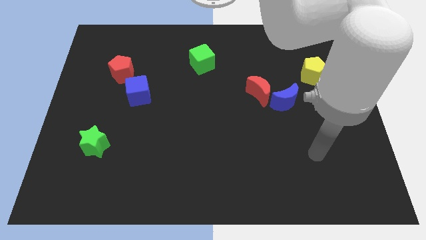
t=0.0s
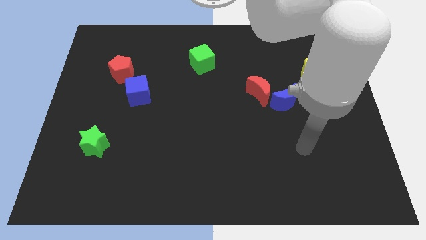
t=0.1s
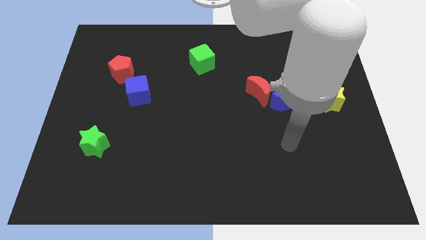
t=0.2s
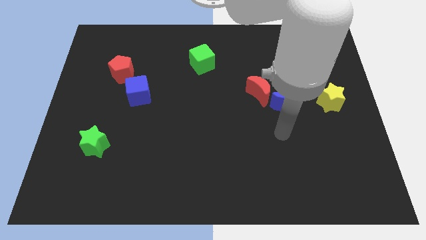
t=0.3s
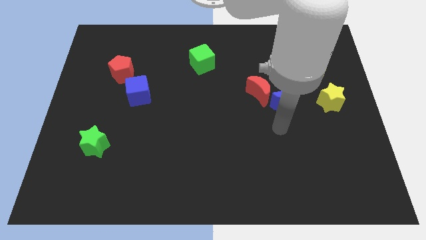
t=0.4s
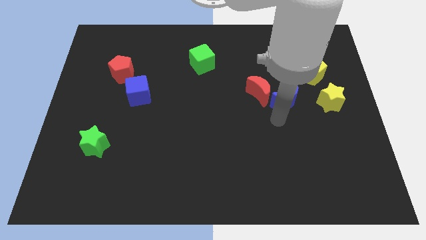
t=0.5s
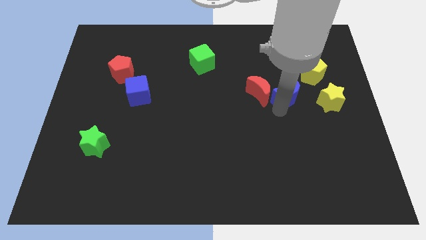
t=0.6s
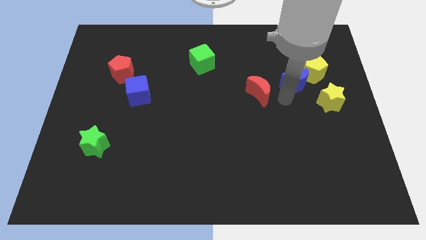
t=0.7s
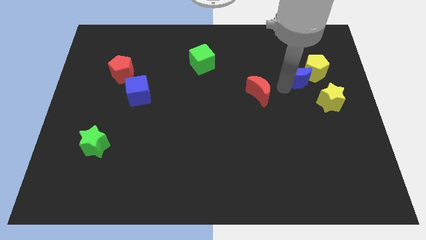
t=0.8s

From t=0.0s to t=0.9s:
separate the red moon from the blue moon

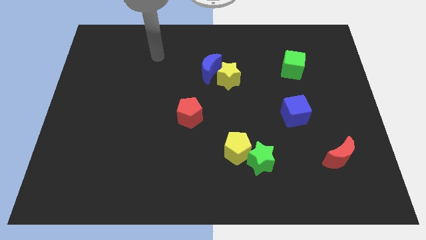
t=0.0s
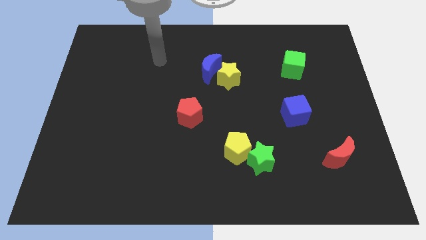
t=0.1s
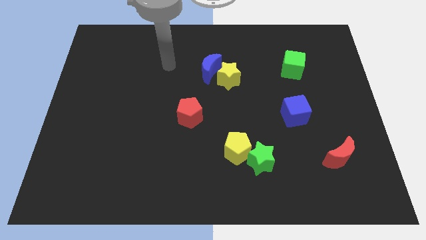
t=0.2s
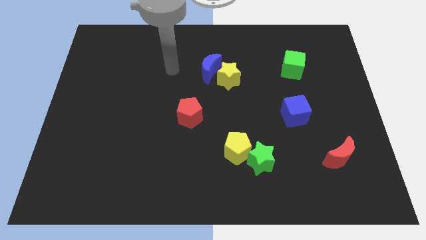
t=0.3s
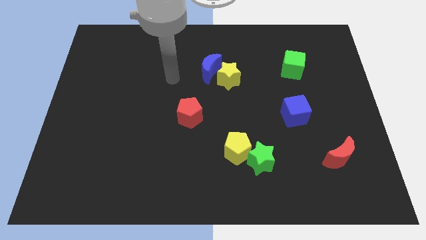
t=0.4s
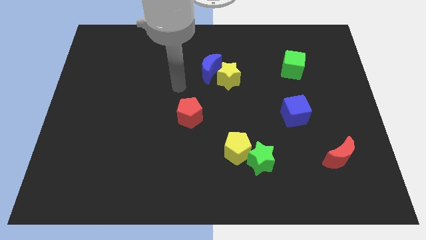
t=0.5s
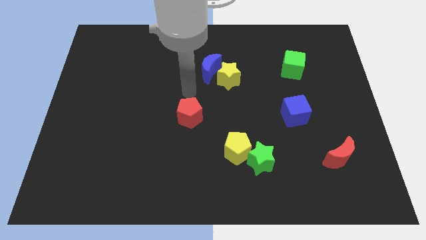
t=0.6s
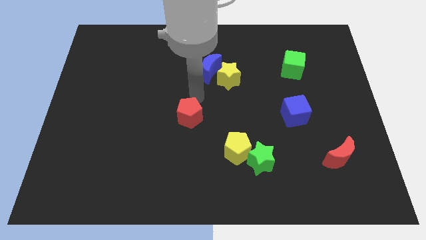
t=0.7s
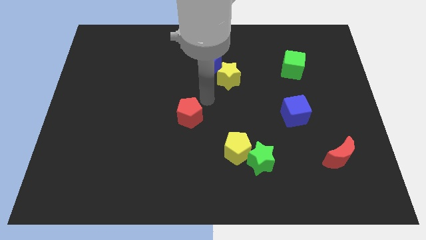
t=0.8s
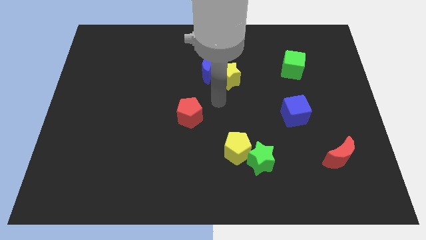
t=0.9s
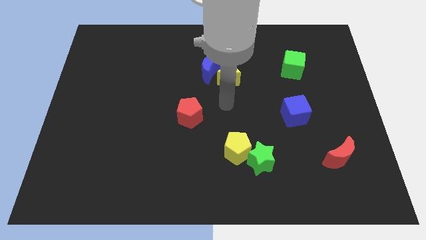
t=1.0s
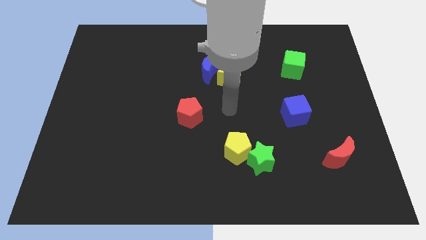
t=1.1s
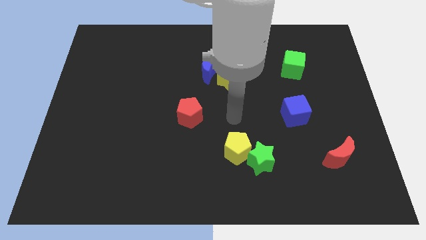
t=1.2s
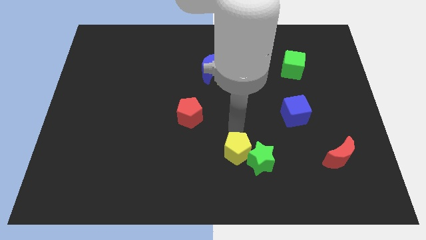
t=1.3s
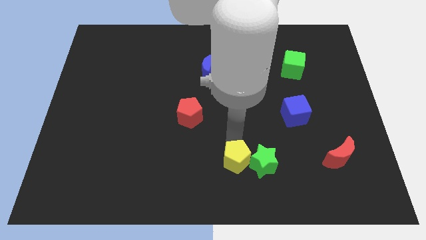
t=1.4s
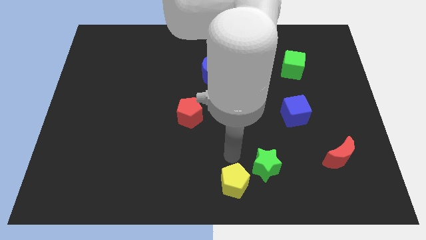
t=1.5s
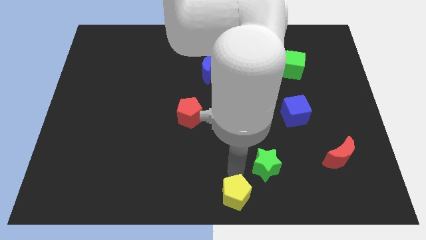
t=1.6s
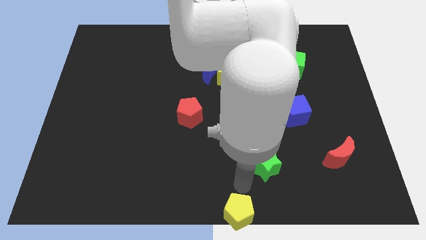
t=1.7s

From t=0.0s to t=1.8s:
separate the green star from the yellow pentagon

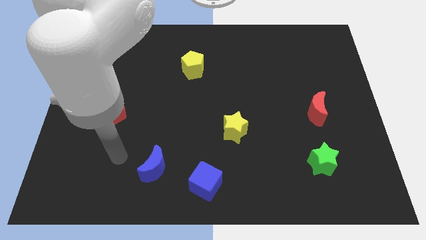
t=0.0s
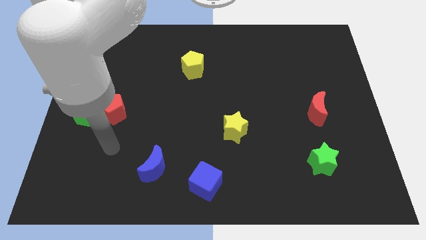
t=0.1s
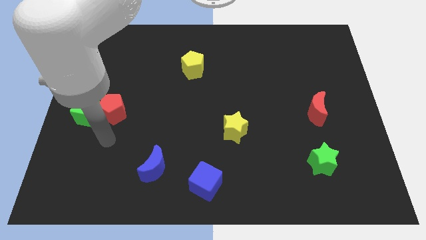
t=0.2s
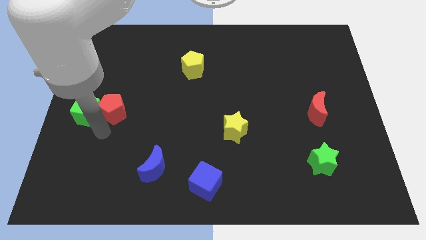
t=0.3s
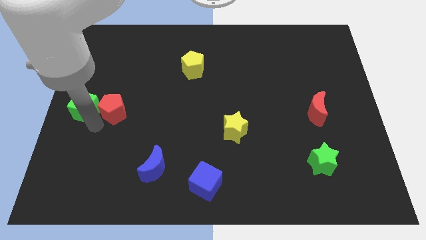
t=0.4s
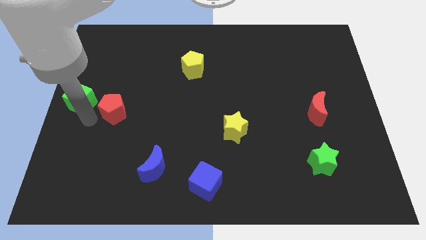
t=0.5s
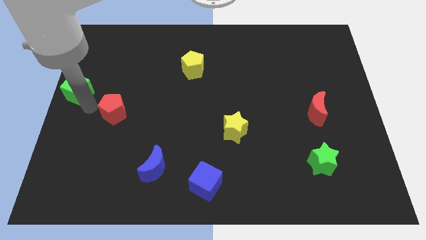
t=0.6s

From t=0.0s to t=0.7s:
pull the red pentagon apart from the green cube

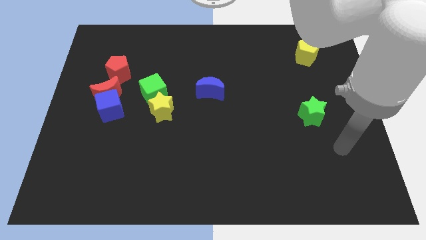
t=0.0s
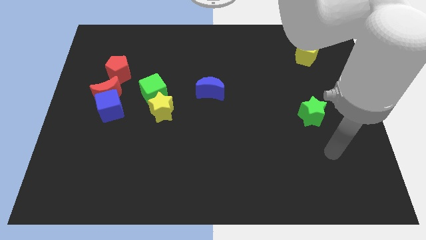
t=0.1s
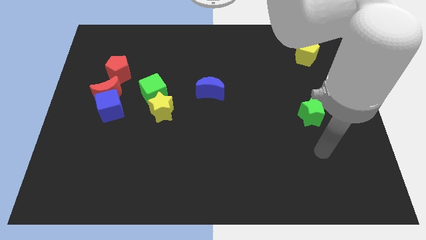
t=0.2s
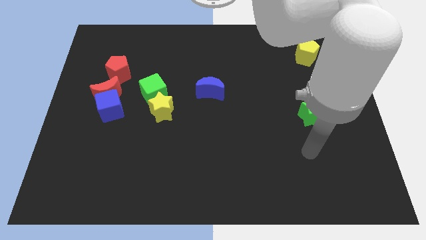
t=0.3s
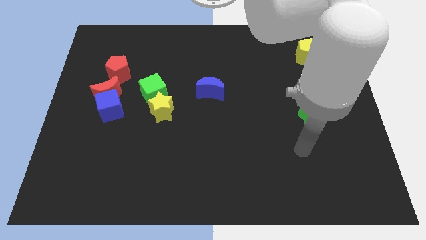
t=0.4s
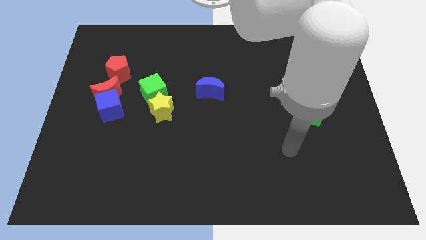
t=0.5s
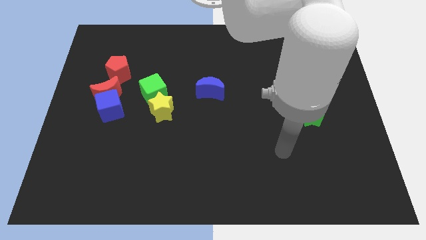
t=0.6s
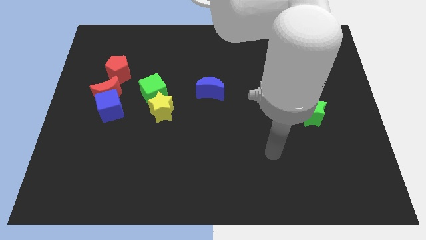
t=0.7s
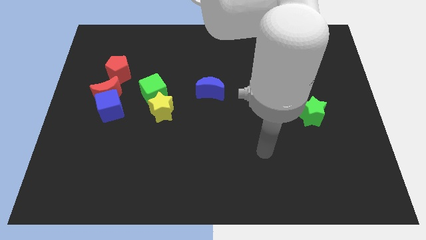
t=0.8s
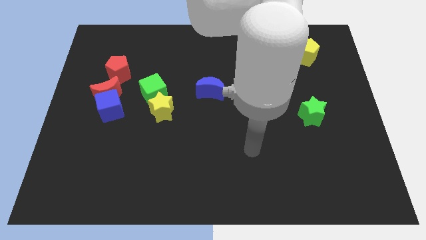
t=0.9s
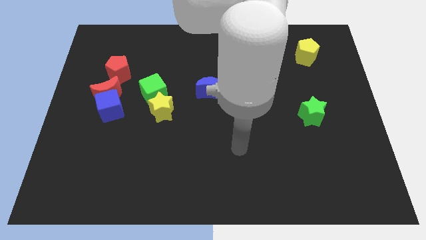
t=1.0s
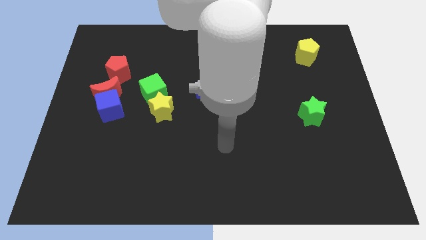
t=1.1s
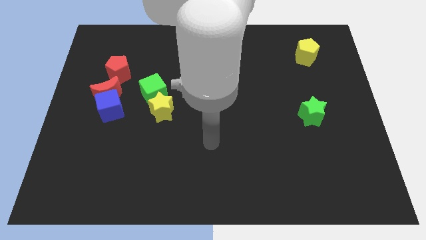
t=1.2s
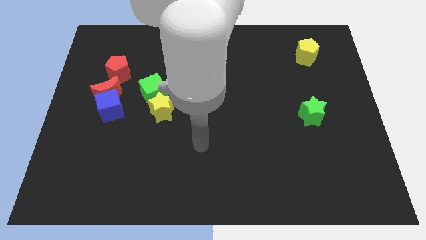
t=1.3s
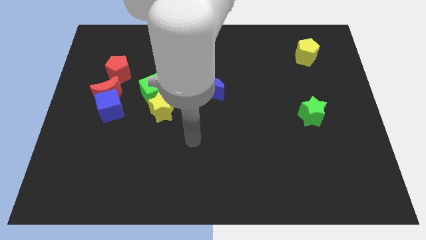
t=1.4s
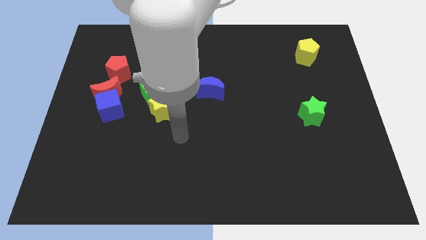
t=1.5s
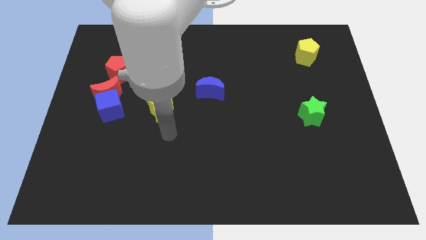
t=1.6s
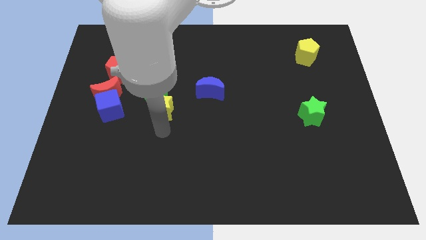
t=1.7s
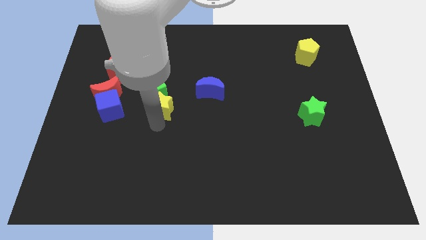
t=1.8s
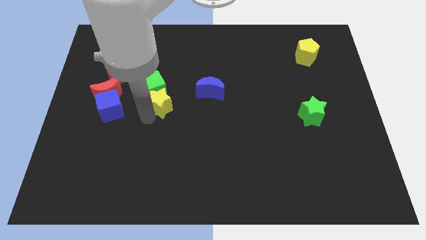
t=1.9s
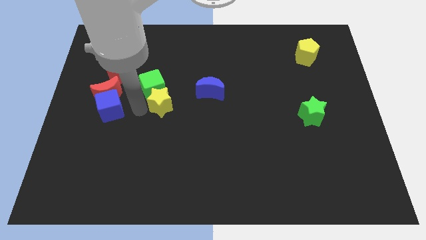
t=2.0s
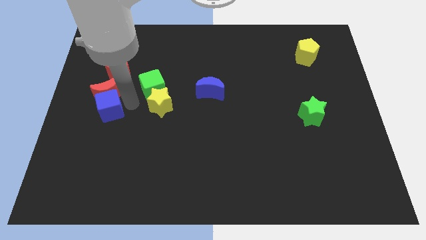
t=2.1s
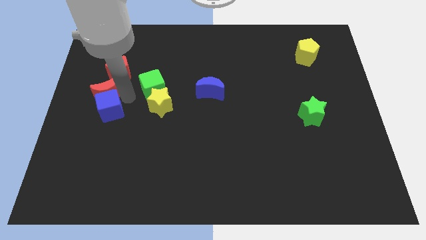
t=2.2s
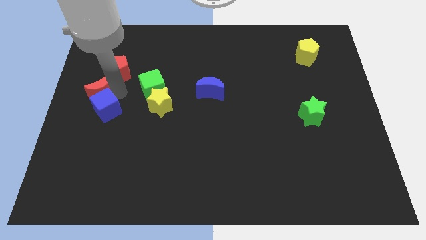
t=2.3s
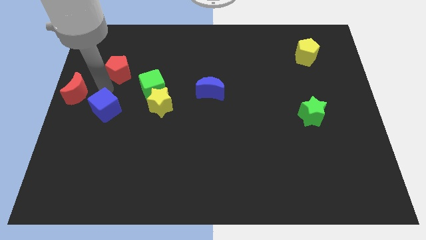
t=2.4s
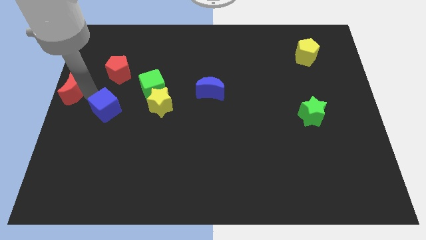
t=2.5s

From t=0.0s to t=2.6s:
pull the blue cube apart from the red moon

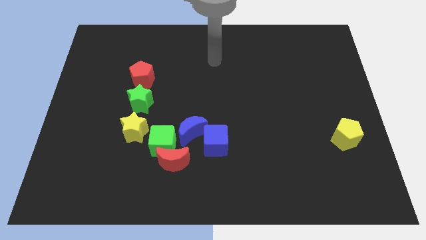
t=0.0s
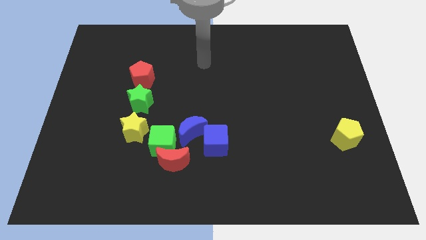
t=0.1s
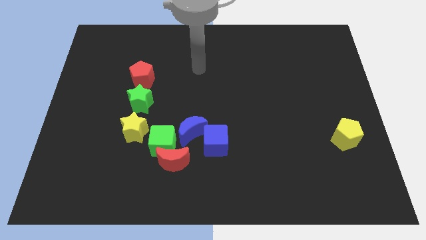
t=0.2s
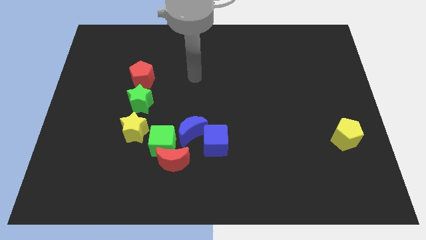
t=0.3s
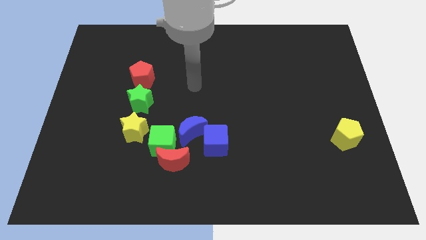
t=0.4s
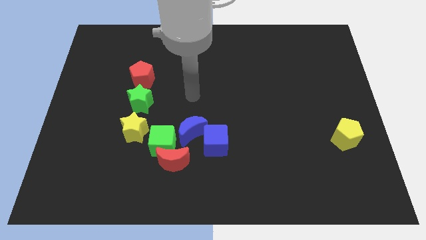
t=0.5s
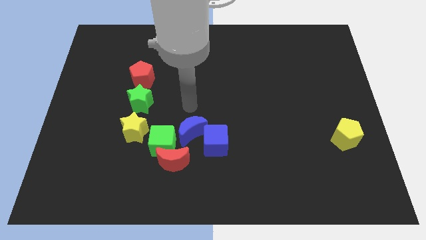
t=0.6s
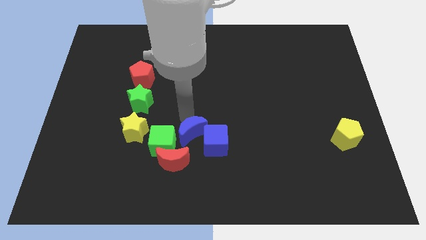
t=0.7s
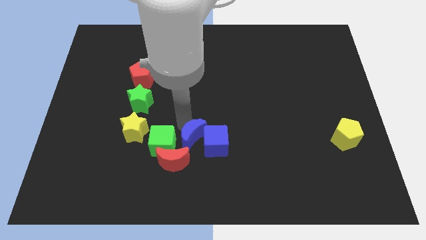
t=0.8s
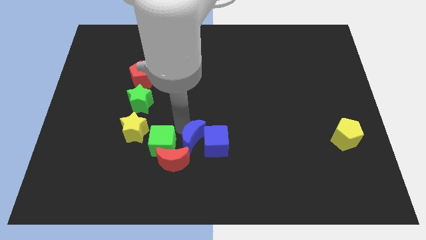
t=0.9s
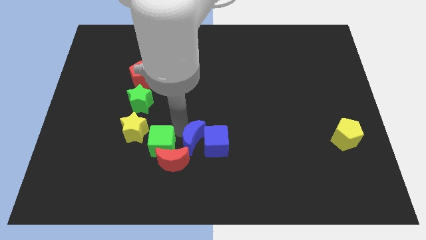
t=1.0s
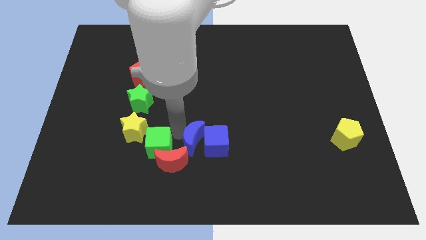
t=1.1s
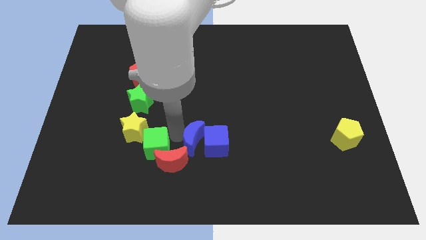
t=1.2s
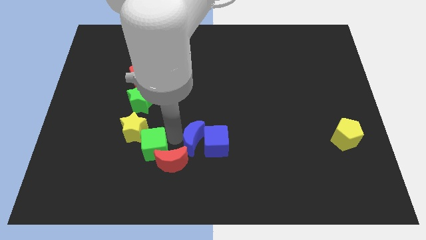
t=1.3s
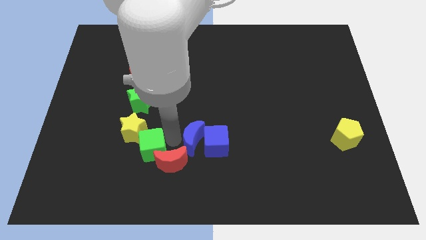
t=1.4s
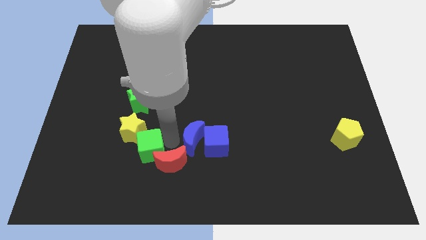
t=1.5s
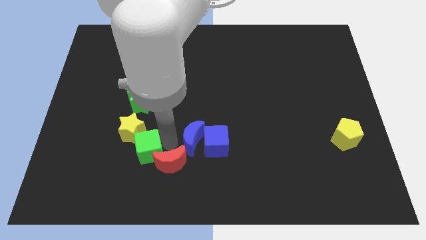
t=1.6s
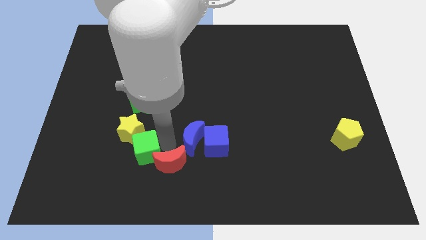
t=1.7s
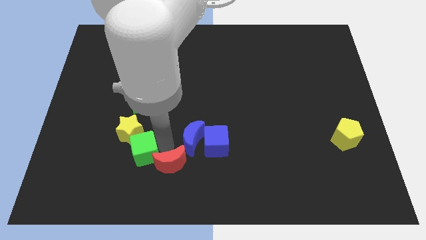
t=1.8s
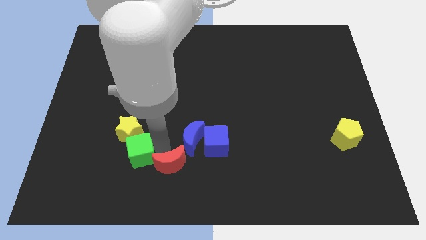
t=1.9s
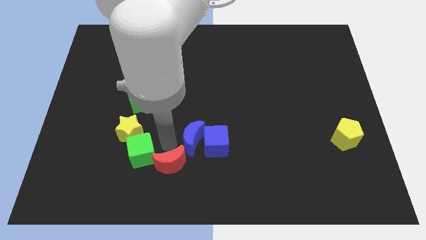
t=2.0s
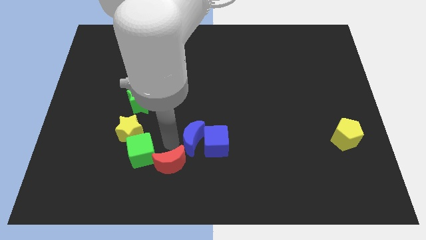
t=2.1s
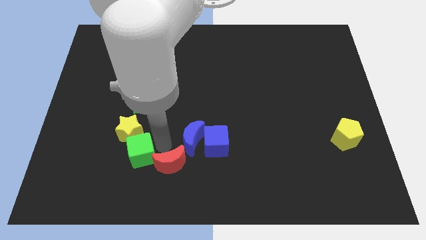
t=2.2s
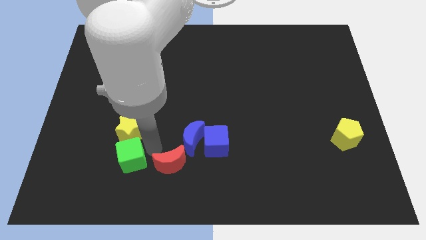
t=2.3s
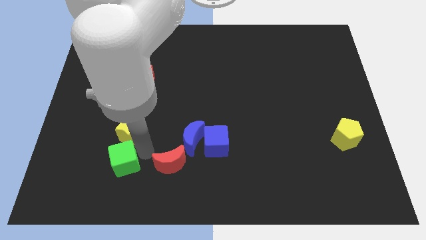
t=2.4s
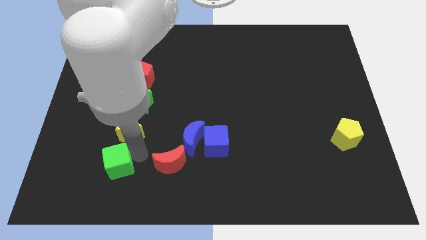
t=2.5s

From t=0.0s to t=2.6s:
separate the green cube from the red moon, blue moon, and yellow star

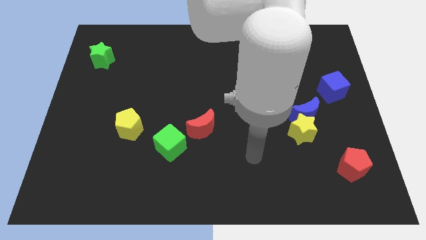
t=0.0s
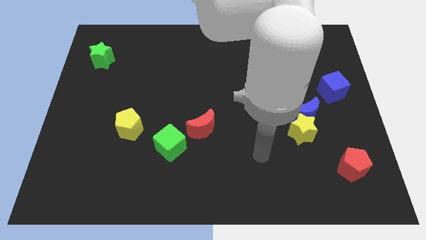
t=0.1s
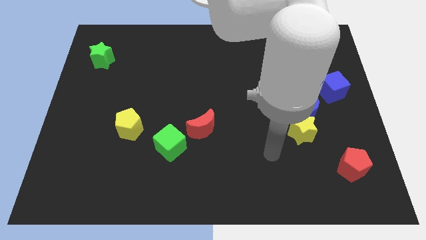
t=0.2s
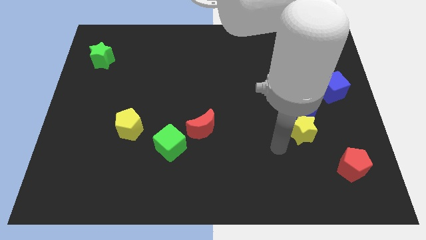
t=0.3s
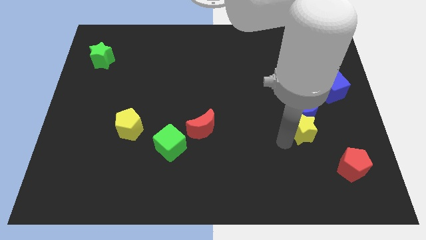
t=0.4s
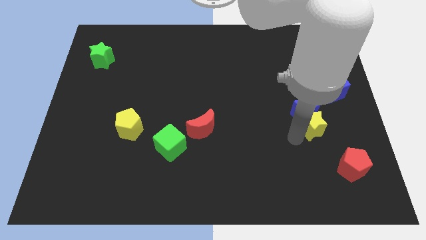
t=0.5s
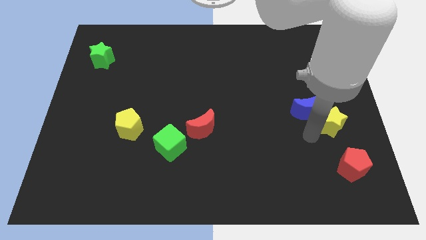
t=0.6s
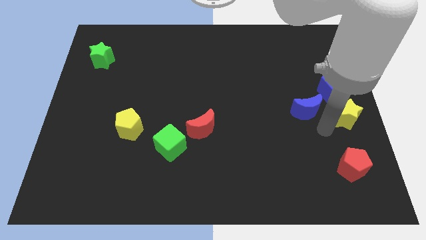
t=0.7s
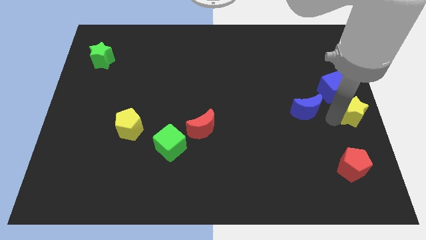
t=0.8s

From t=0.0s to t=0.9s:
move the blue moon away from the yellow star
